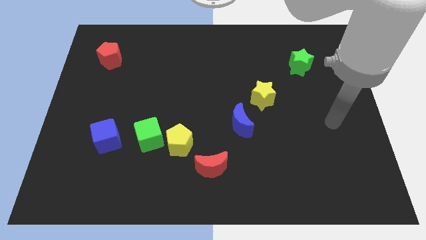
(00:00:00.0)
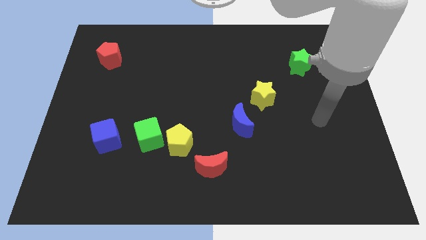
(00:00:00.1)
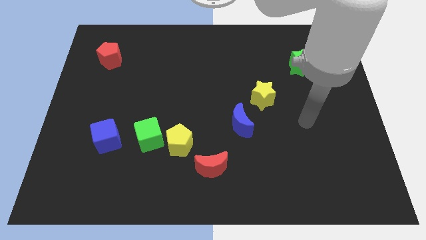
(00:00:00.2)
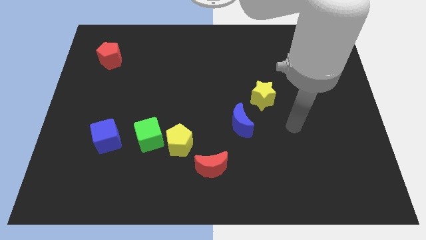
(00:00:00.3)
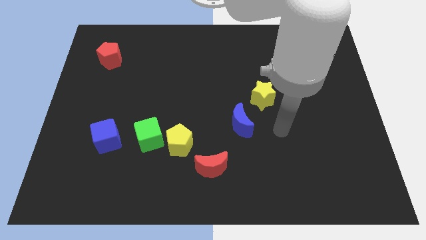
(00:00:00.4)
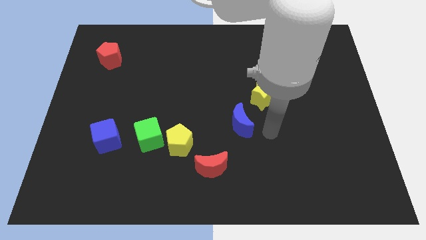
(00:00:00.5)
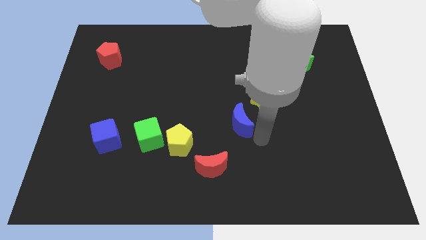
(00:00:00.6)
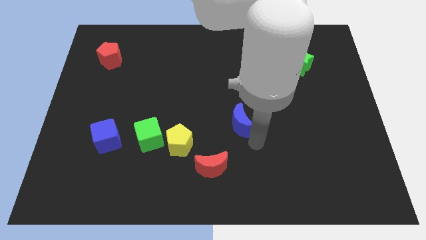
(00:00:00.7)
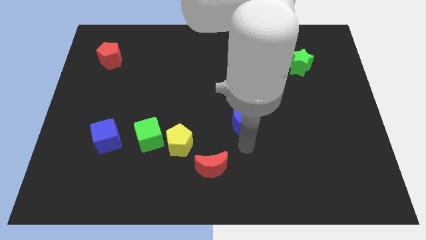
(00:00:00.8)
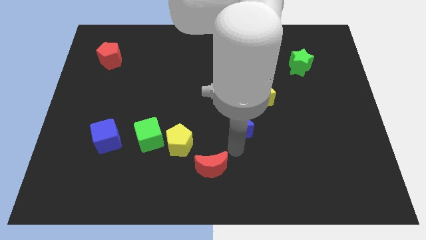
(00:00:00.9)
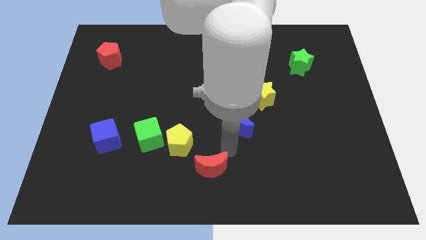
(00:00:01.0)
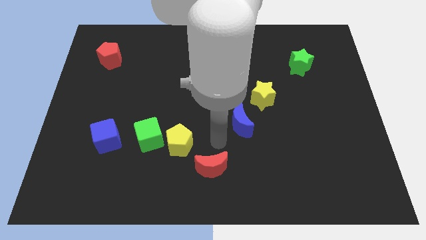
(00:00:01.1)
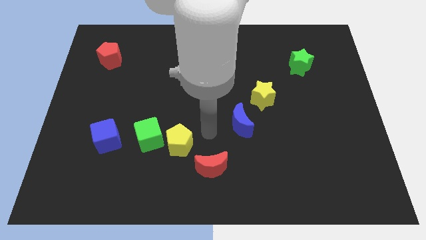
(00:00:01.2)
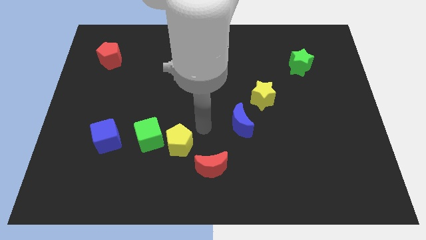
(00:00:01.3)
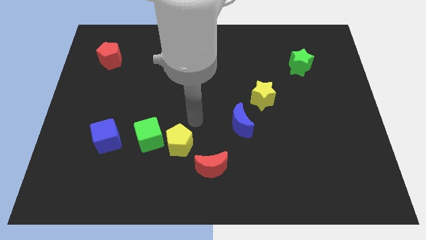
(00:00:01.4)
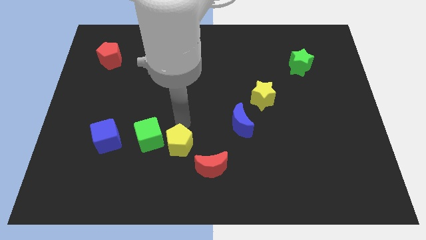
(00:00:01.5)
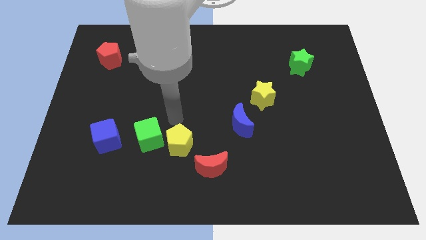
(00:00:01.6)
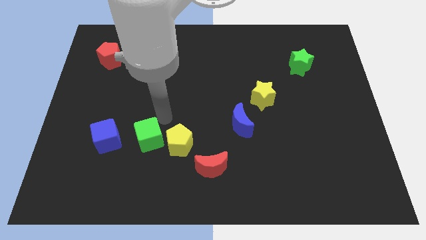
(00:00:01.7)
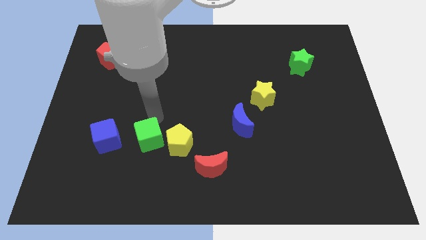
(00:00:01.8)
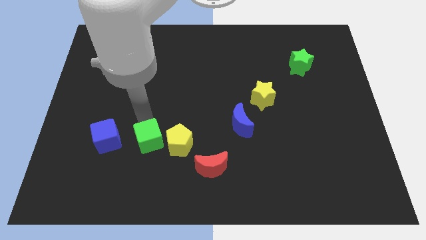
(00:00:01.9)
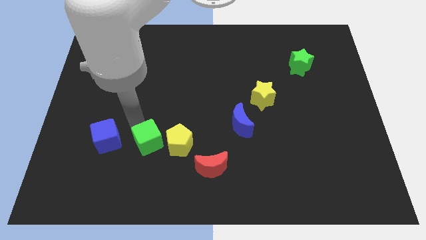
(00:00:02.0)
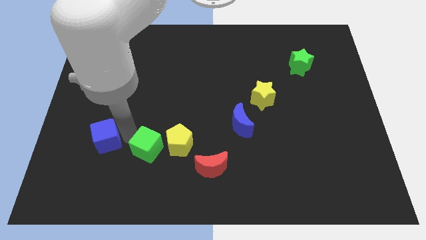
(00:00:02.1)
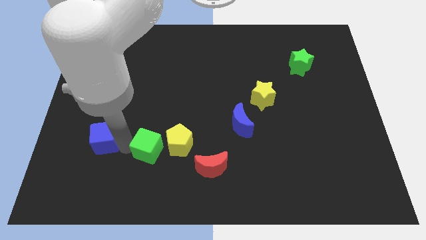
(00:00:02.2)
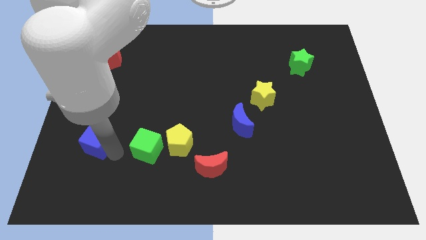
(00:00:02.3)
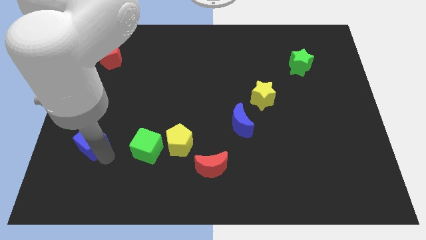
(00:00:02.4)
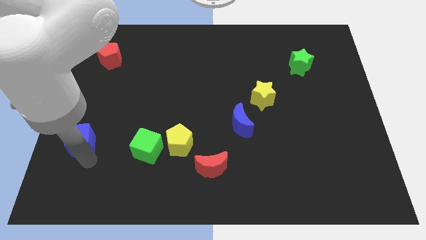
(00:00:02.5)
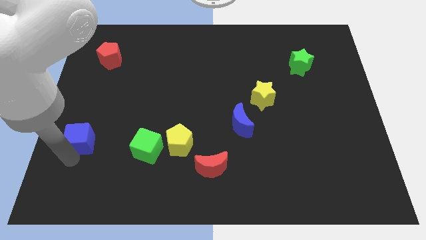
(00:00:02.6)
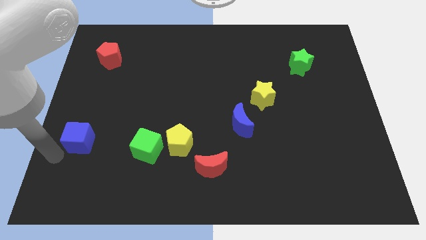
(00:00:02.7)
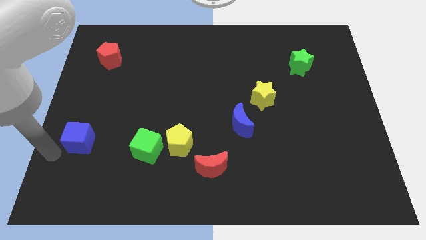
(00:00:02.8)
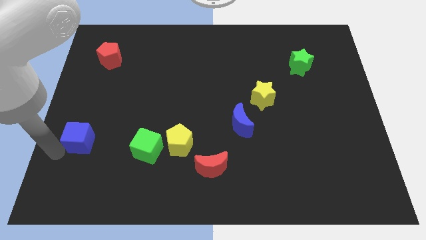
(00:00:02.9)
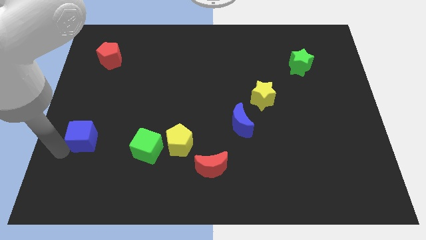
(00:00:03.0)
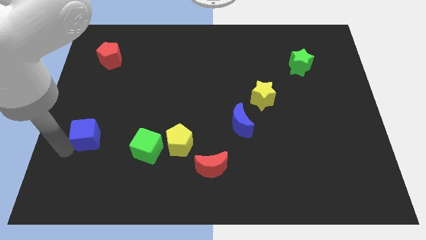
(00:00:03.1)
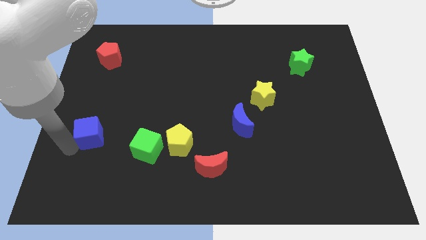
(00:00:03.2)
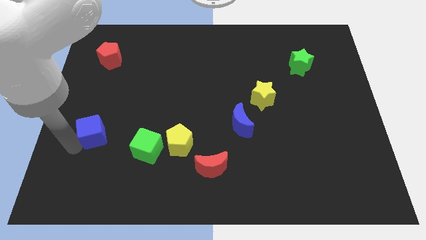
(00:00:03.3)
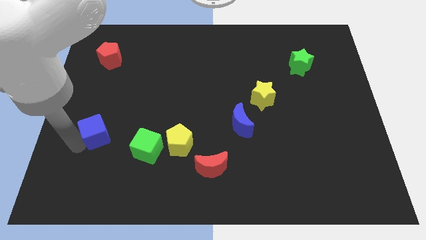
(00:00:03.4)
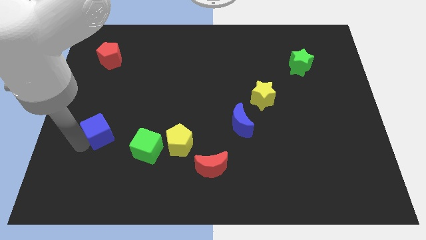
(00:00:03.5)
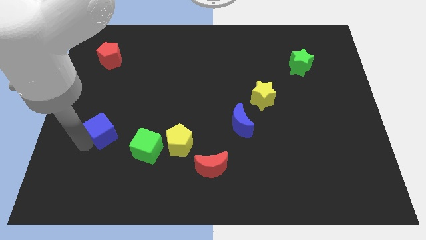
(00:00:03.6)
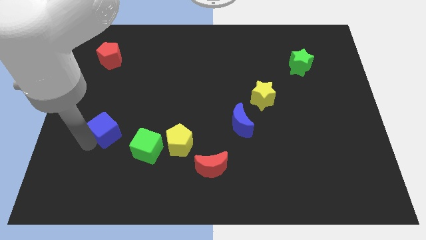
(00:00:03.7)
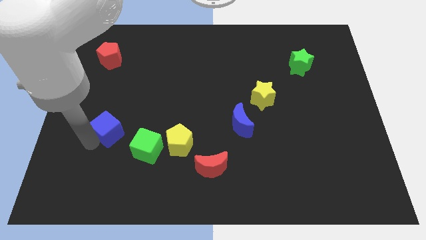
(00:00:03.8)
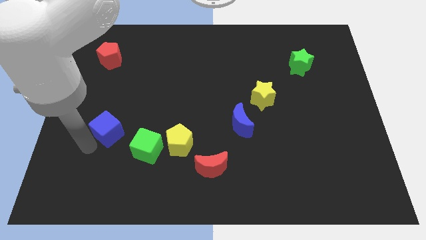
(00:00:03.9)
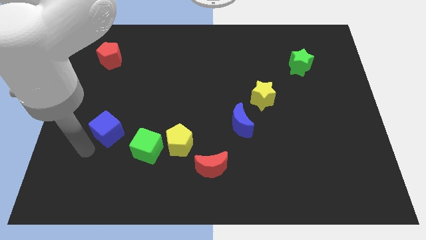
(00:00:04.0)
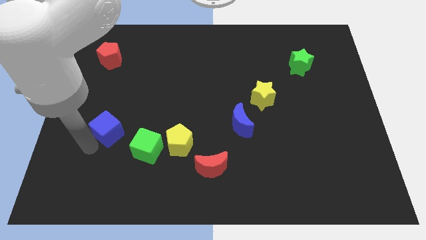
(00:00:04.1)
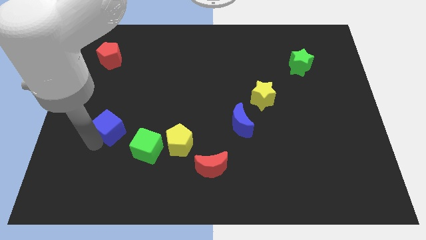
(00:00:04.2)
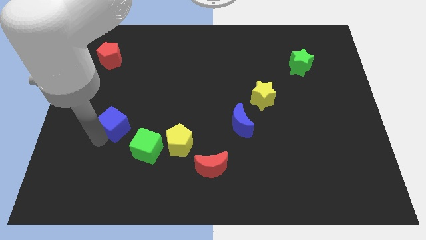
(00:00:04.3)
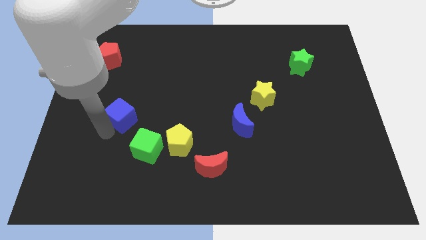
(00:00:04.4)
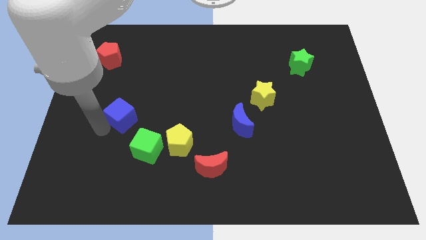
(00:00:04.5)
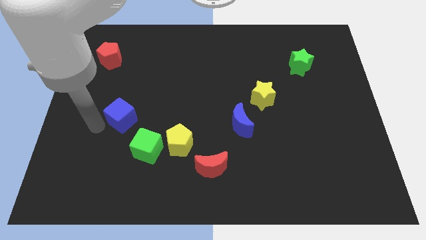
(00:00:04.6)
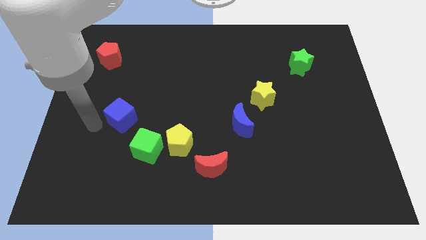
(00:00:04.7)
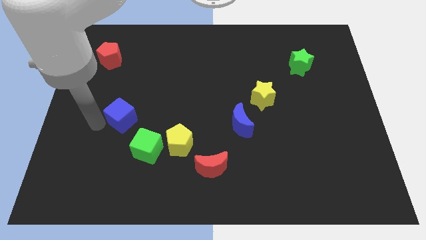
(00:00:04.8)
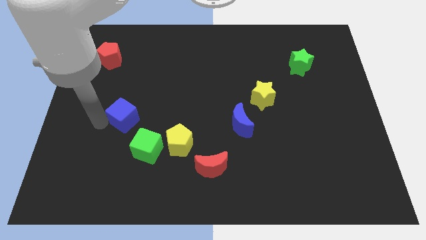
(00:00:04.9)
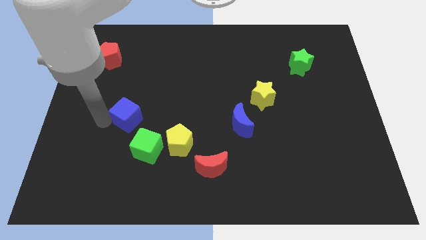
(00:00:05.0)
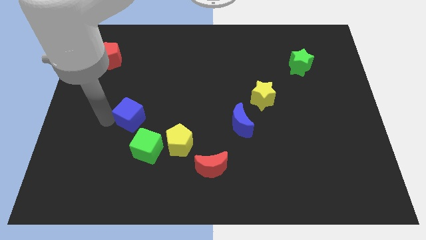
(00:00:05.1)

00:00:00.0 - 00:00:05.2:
move the blue cube to the top of the green cube

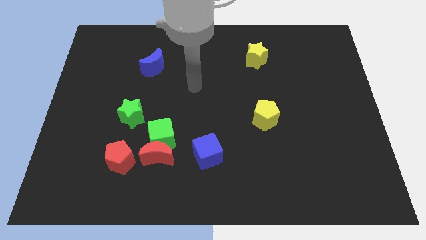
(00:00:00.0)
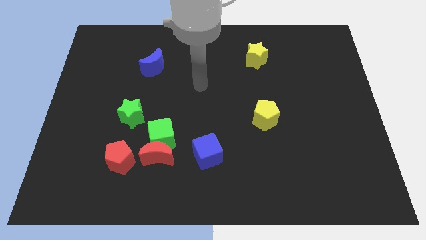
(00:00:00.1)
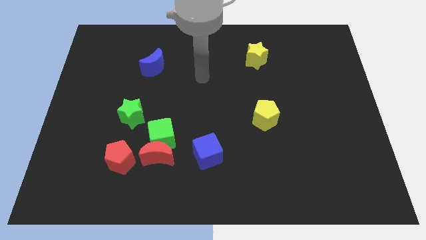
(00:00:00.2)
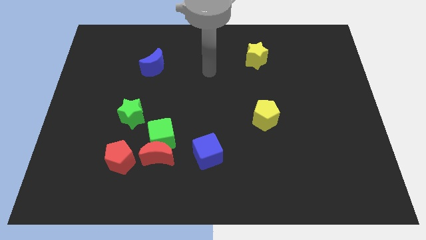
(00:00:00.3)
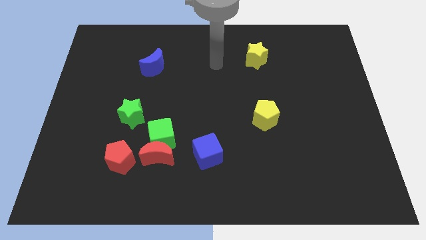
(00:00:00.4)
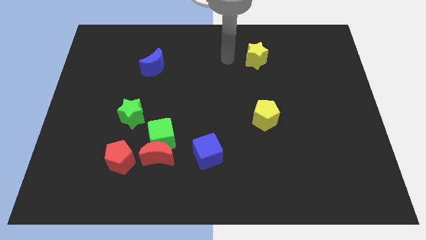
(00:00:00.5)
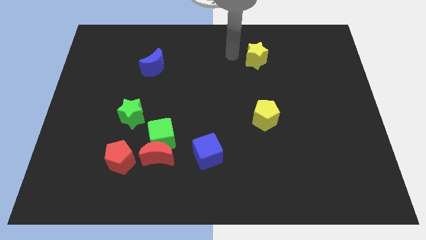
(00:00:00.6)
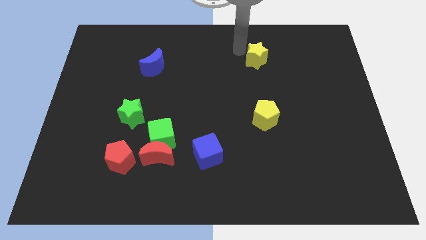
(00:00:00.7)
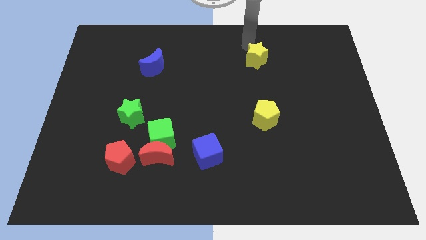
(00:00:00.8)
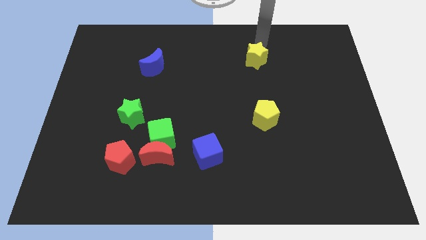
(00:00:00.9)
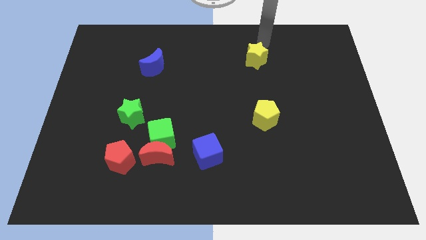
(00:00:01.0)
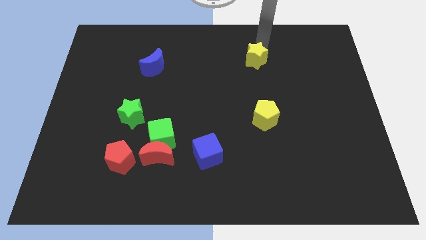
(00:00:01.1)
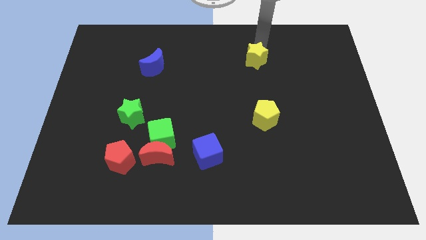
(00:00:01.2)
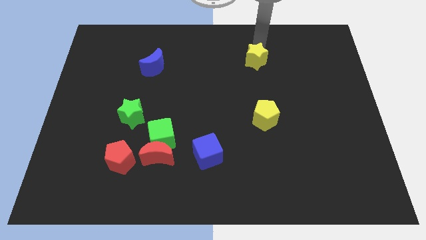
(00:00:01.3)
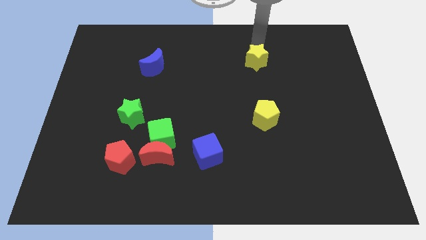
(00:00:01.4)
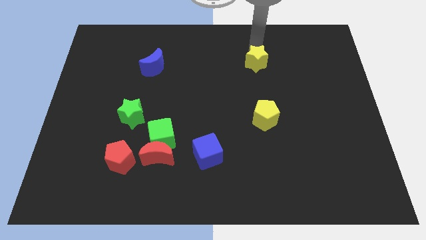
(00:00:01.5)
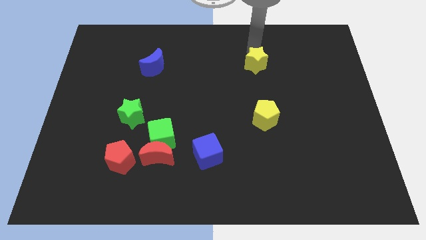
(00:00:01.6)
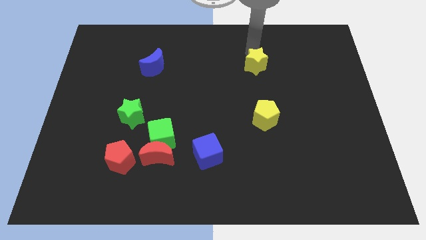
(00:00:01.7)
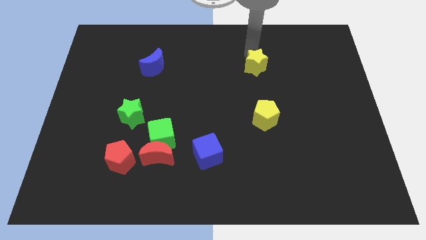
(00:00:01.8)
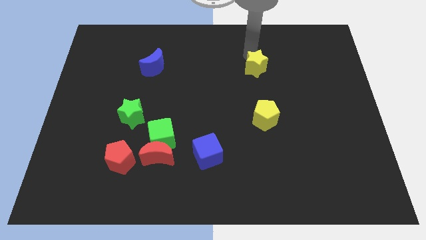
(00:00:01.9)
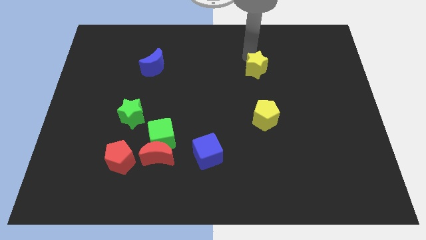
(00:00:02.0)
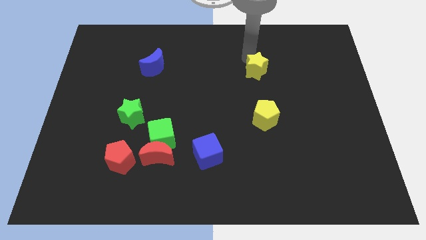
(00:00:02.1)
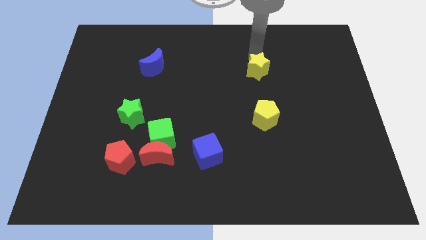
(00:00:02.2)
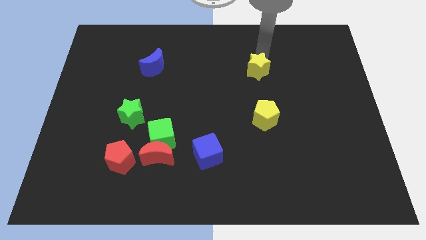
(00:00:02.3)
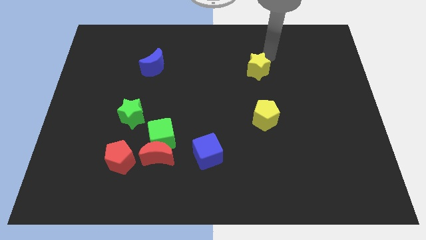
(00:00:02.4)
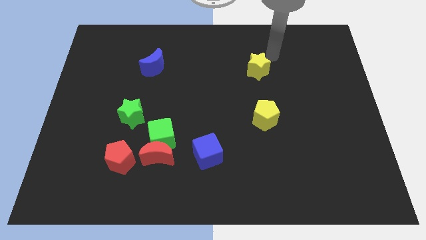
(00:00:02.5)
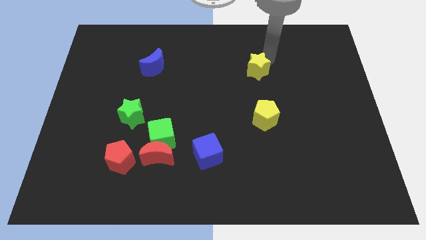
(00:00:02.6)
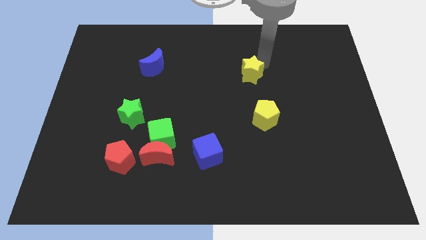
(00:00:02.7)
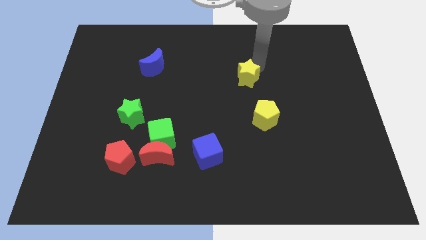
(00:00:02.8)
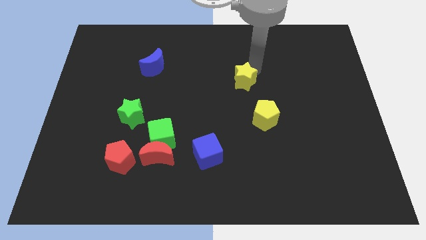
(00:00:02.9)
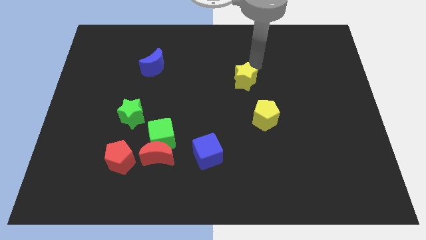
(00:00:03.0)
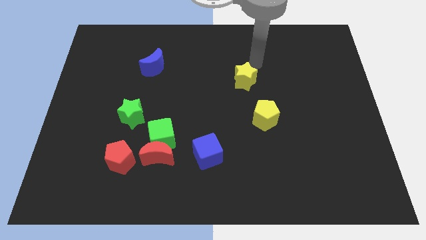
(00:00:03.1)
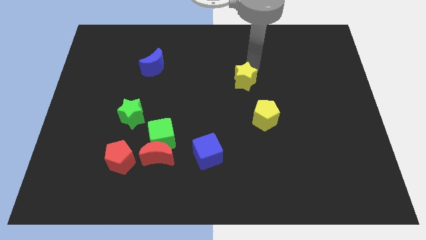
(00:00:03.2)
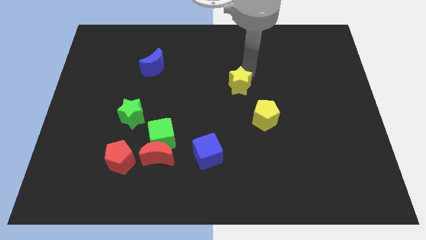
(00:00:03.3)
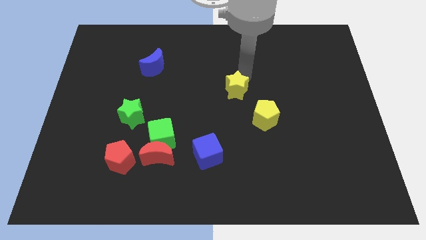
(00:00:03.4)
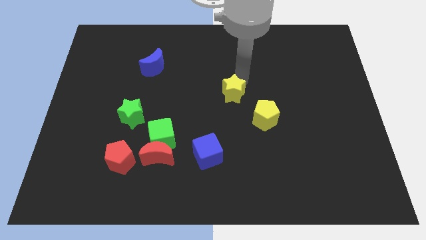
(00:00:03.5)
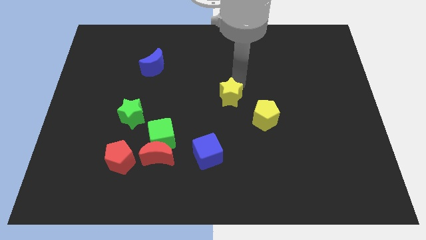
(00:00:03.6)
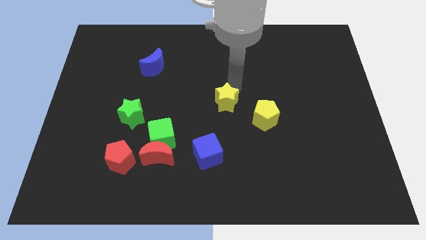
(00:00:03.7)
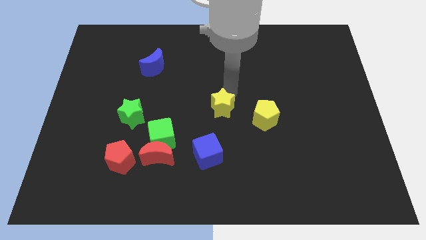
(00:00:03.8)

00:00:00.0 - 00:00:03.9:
put the yellow star to the left of the yellow pentagon
